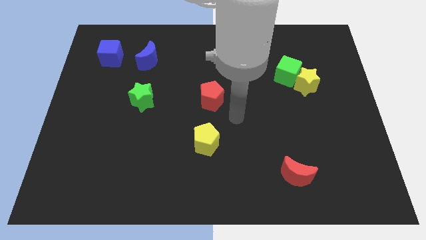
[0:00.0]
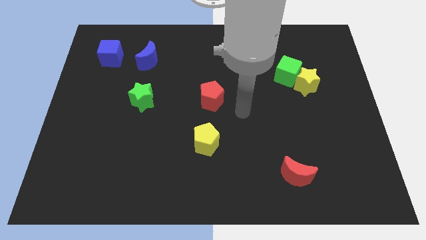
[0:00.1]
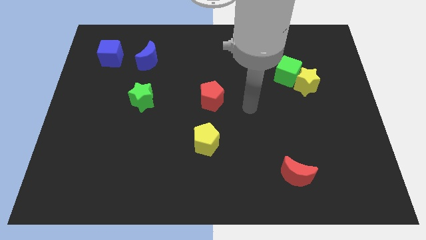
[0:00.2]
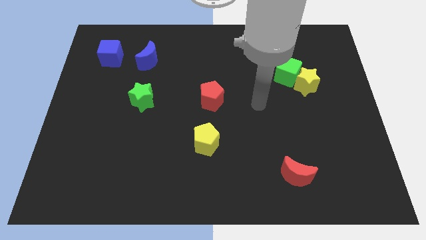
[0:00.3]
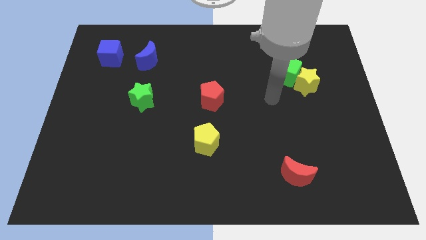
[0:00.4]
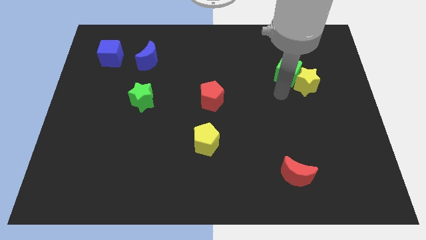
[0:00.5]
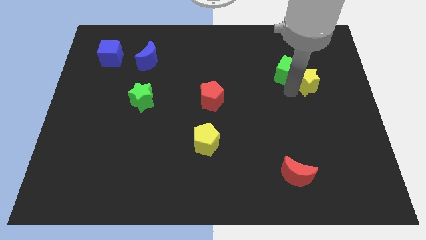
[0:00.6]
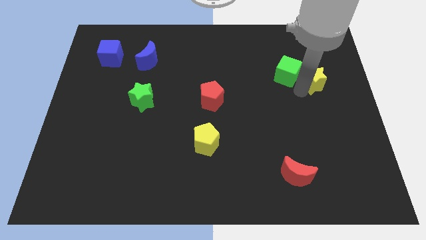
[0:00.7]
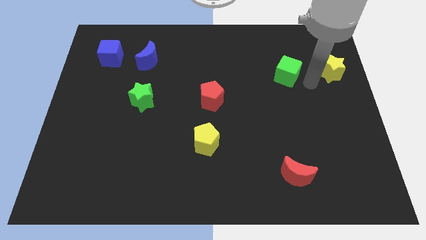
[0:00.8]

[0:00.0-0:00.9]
separate the green cube from the yellow star

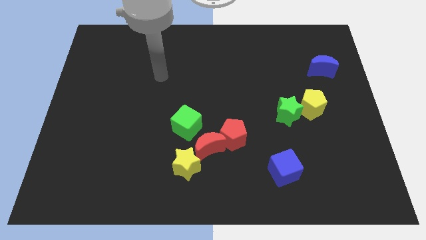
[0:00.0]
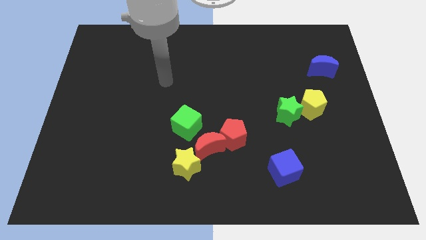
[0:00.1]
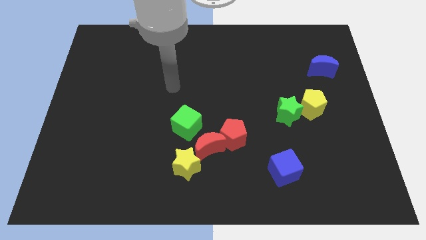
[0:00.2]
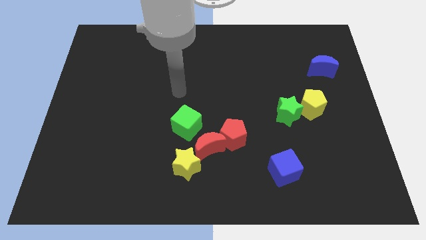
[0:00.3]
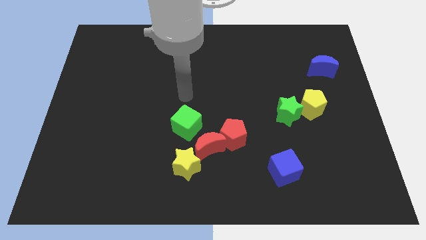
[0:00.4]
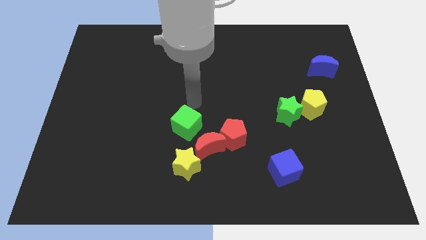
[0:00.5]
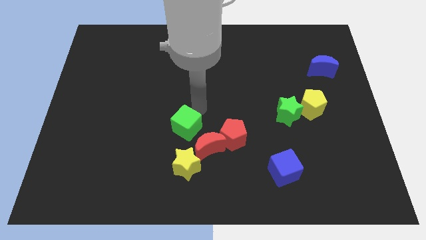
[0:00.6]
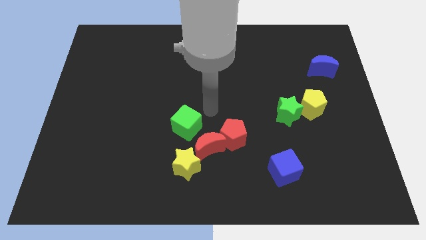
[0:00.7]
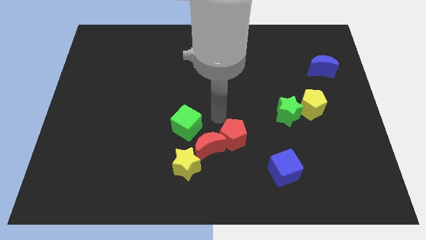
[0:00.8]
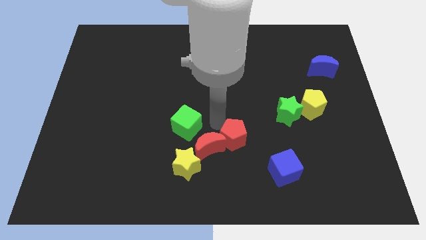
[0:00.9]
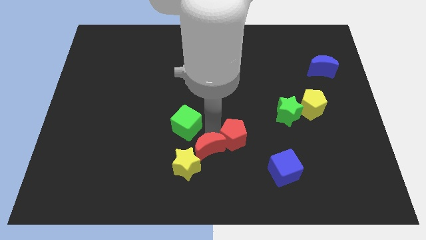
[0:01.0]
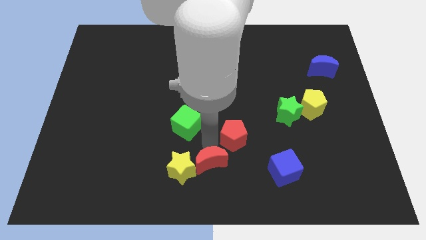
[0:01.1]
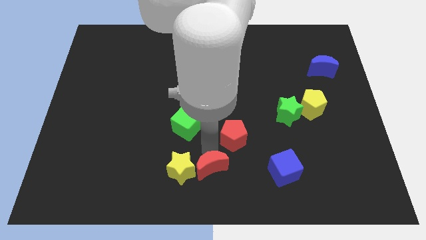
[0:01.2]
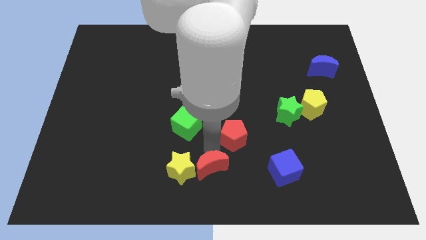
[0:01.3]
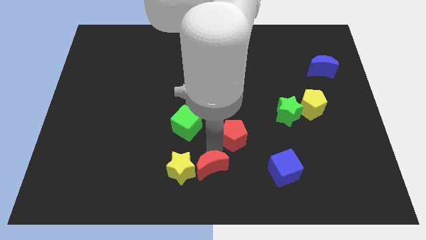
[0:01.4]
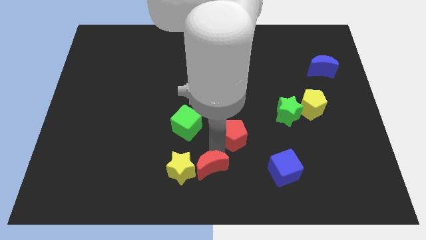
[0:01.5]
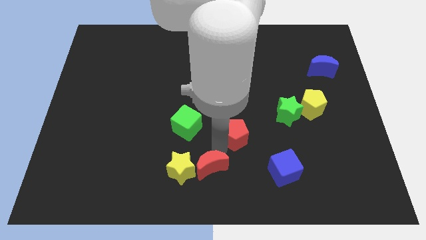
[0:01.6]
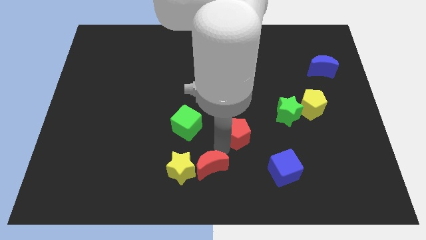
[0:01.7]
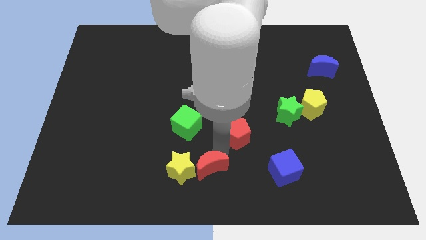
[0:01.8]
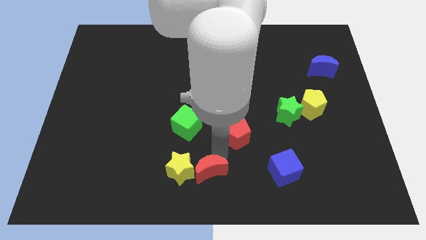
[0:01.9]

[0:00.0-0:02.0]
separate the red pentagon from the red moon

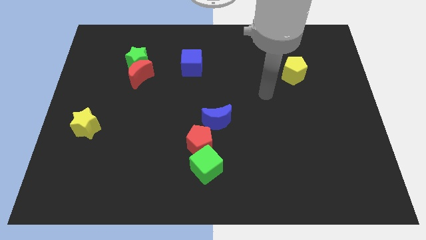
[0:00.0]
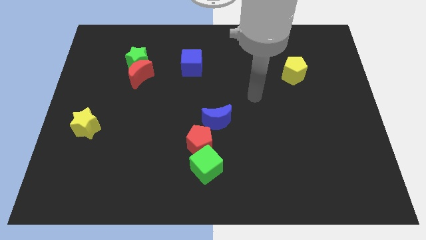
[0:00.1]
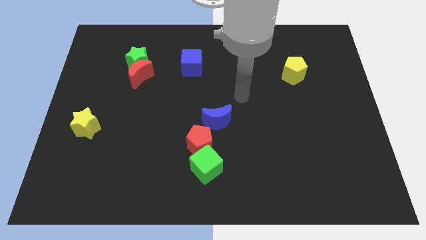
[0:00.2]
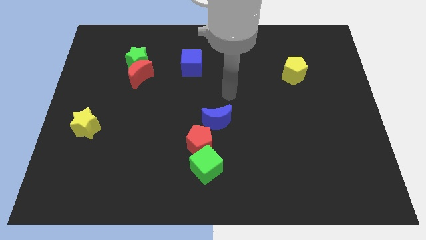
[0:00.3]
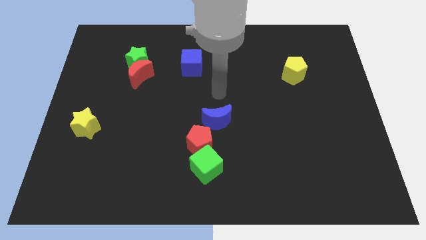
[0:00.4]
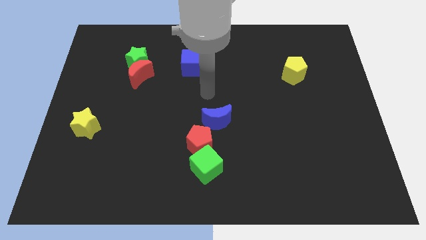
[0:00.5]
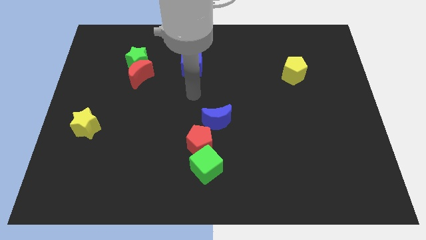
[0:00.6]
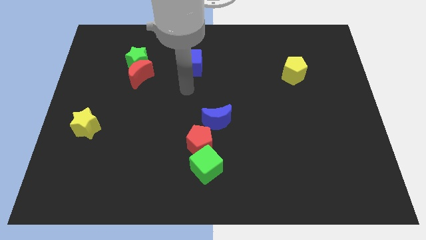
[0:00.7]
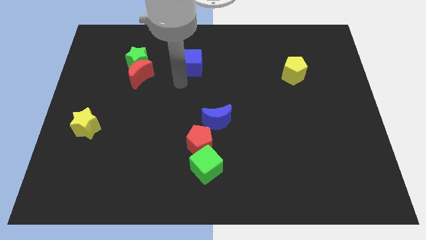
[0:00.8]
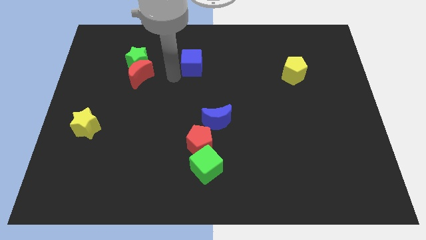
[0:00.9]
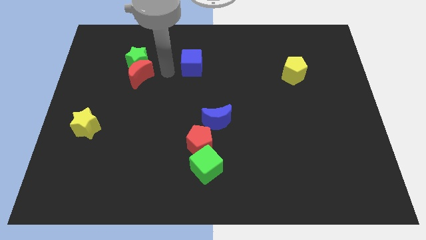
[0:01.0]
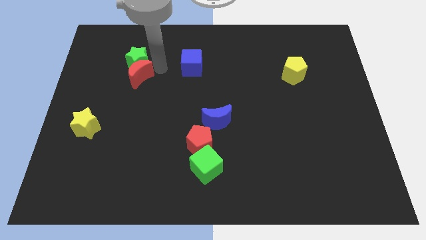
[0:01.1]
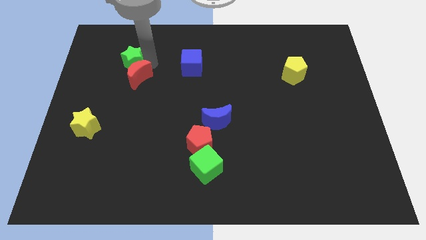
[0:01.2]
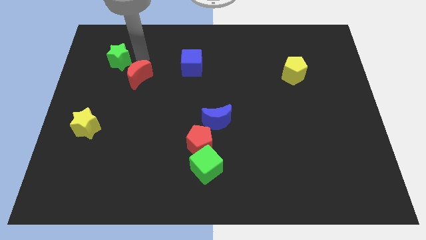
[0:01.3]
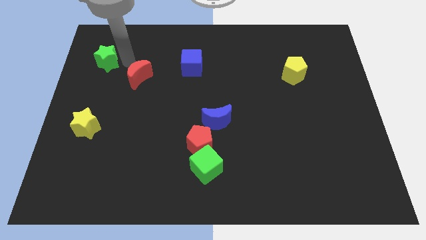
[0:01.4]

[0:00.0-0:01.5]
pull the red moon apart from the green star

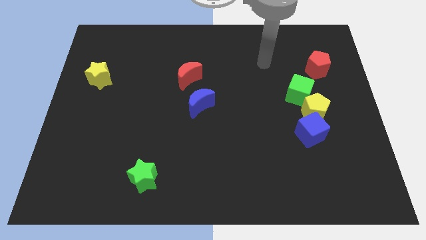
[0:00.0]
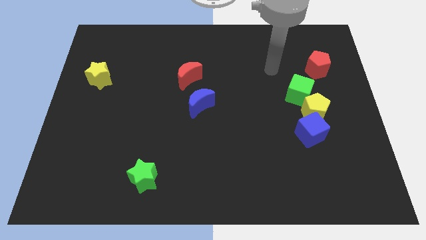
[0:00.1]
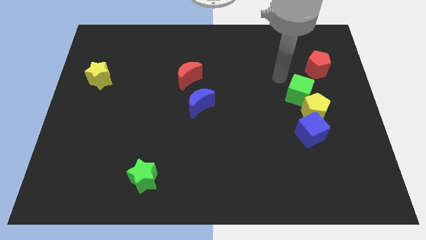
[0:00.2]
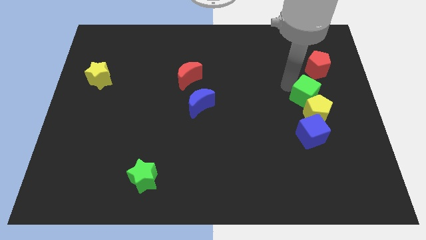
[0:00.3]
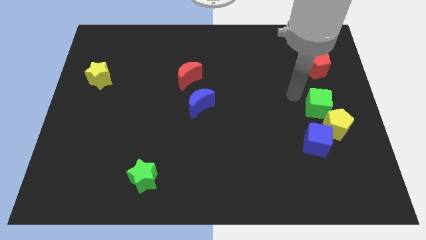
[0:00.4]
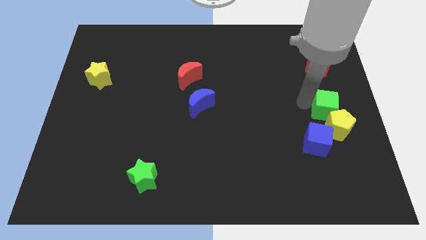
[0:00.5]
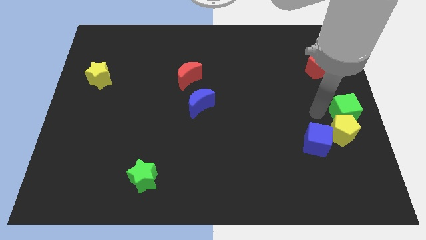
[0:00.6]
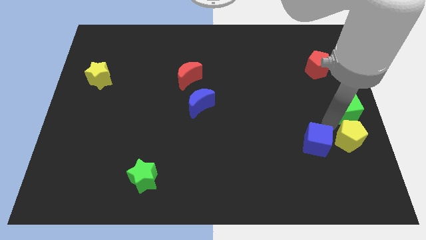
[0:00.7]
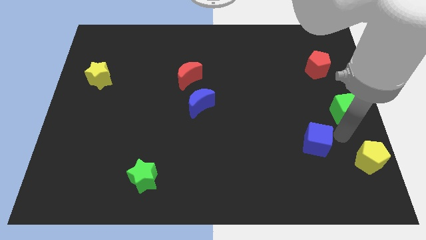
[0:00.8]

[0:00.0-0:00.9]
pull the blue cube apart from the yellow pentagon

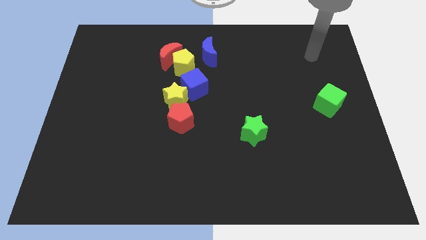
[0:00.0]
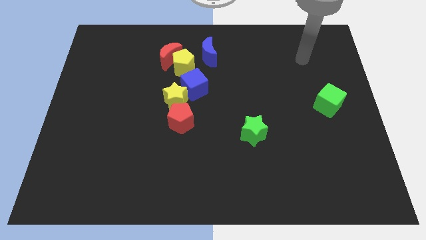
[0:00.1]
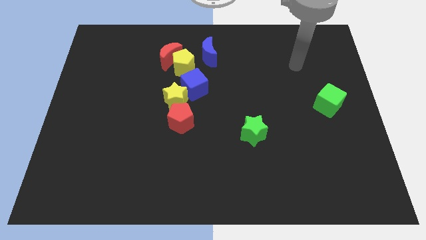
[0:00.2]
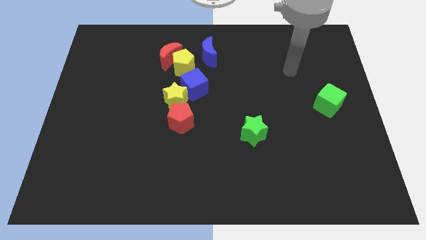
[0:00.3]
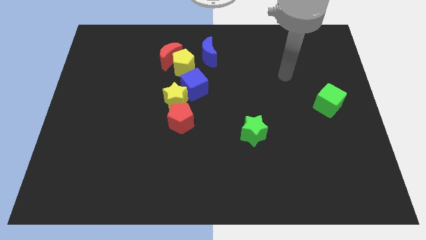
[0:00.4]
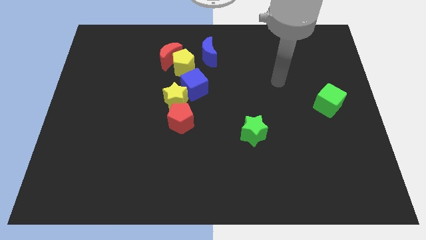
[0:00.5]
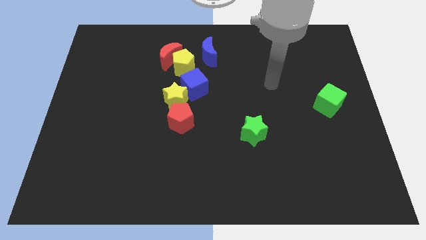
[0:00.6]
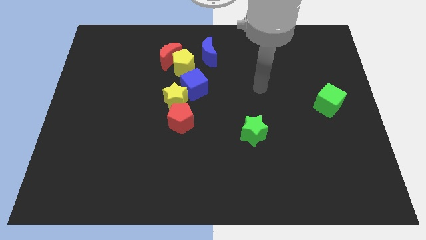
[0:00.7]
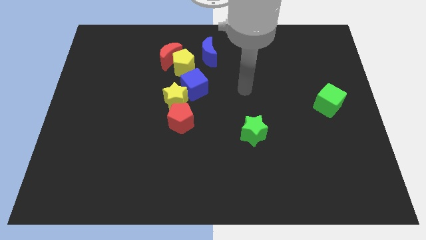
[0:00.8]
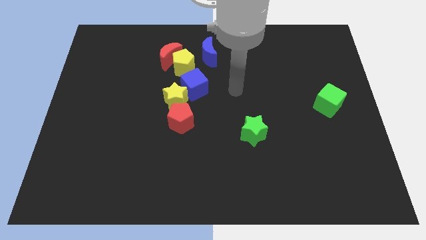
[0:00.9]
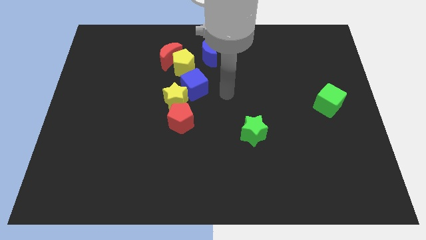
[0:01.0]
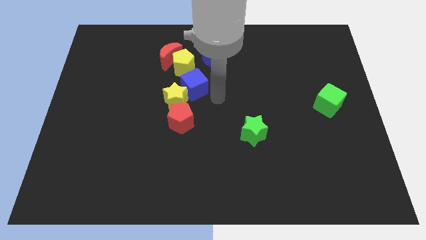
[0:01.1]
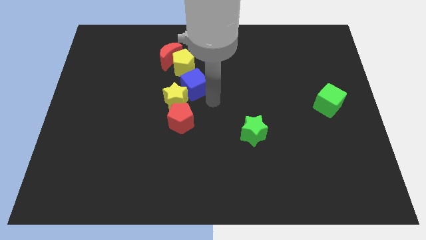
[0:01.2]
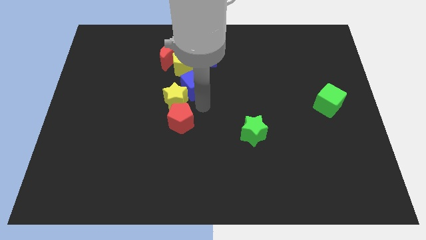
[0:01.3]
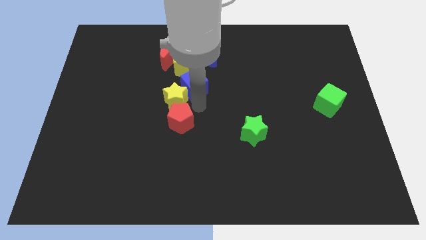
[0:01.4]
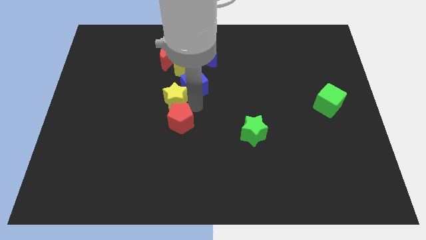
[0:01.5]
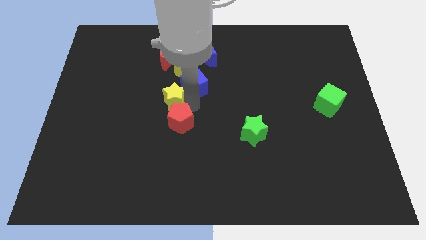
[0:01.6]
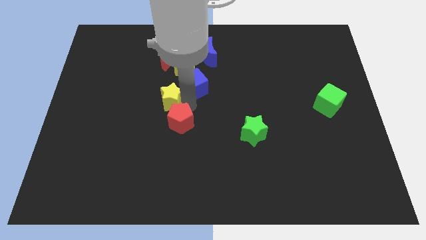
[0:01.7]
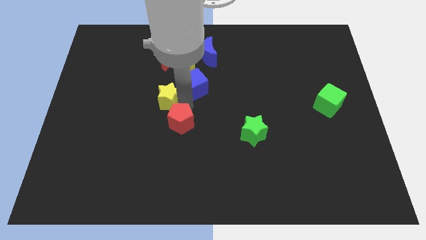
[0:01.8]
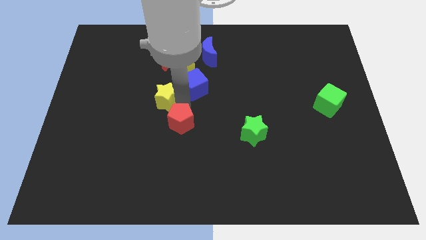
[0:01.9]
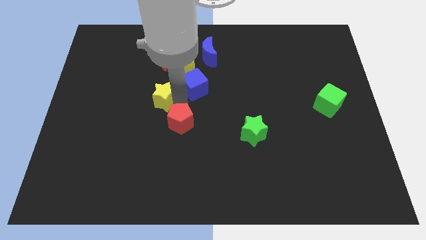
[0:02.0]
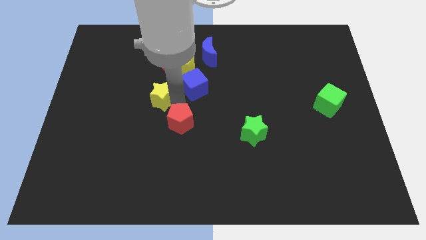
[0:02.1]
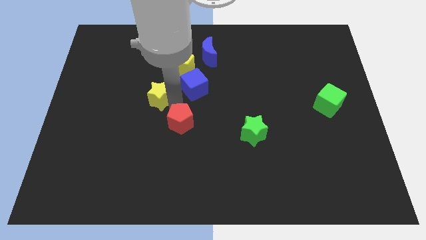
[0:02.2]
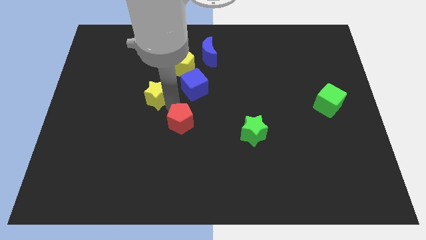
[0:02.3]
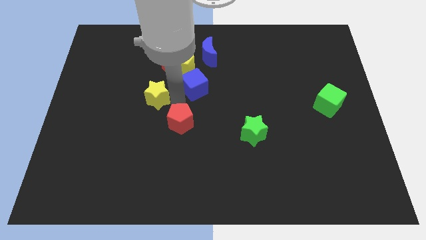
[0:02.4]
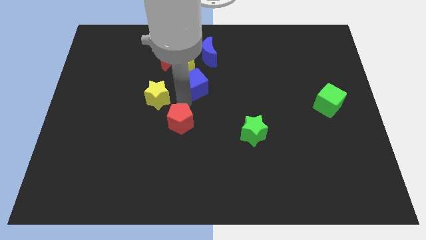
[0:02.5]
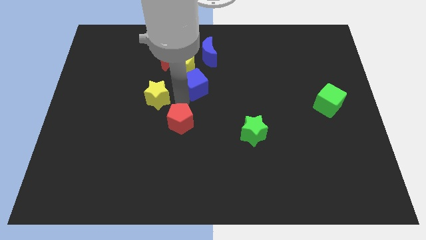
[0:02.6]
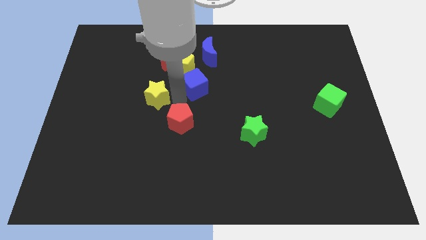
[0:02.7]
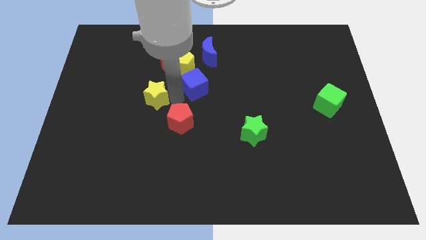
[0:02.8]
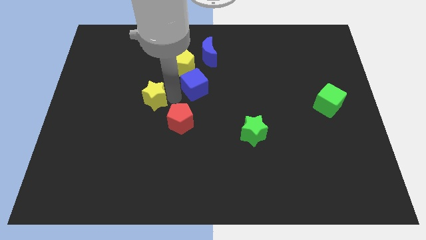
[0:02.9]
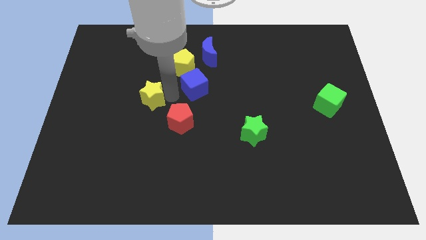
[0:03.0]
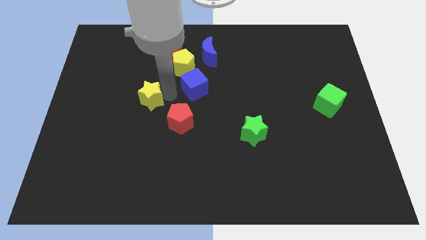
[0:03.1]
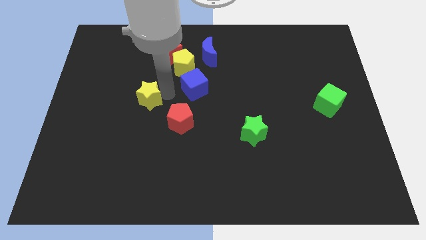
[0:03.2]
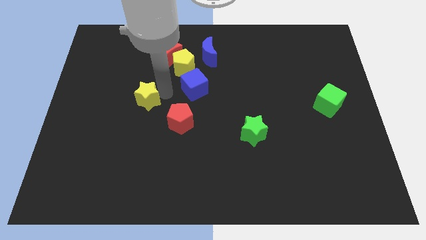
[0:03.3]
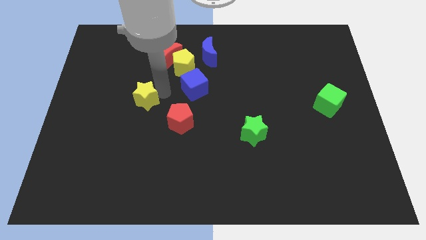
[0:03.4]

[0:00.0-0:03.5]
pull the yellow star apart from the blue cube and red pentagon

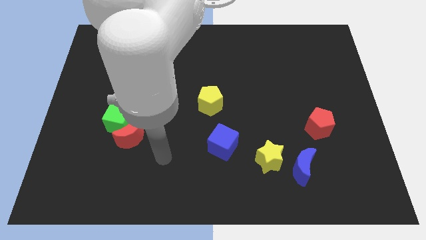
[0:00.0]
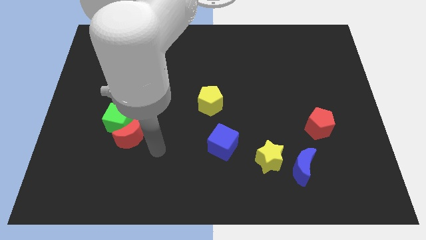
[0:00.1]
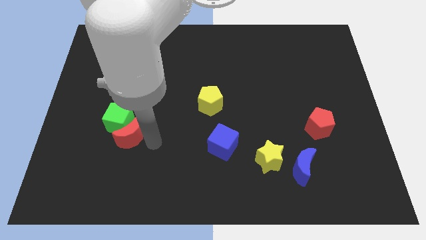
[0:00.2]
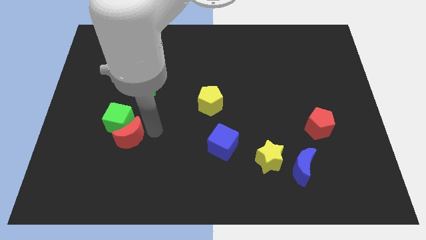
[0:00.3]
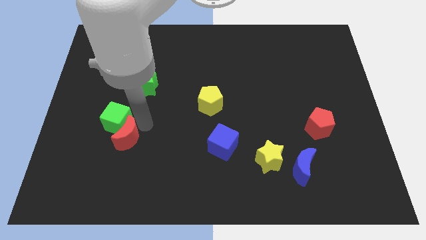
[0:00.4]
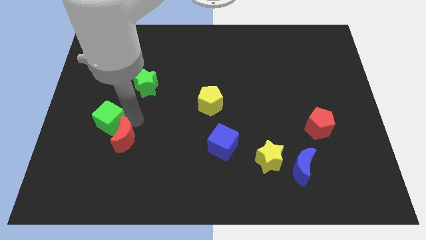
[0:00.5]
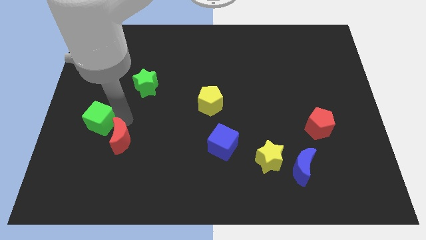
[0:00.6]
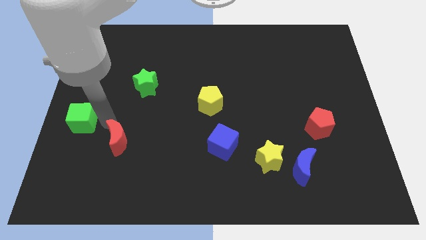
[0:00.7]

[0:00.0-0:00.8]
separate the red moon from the green cube
